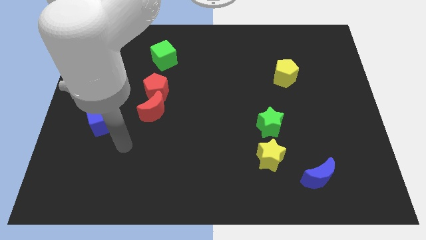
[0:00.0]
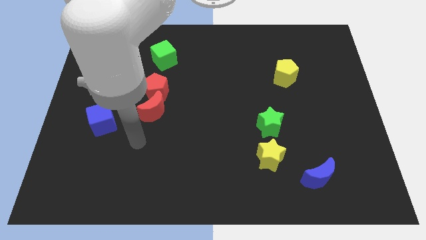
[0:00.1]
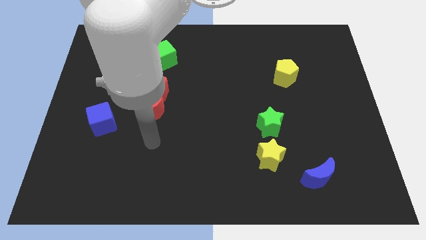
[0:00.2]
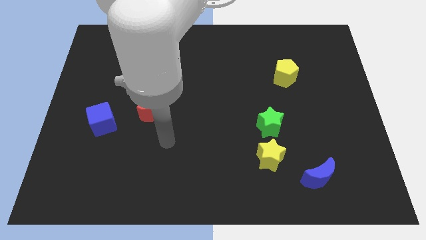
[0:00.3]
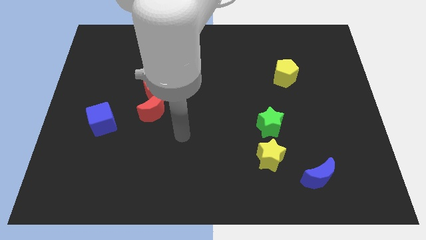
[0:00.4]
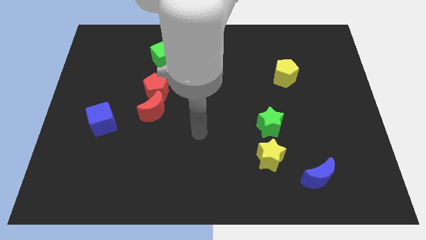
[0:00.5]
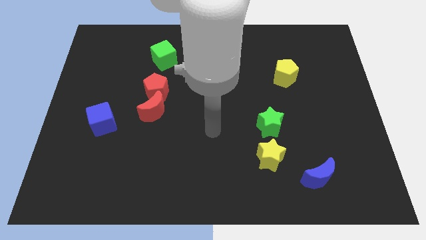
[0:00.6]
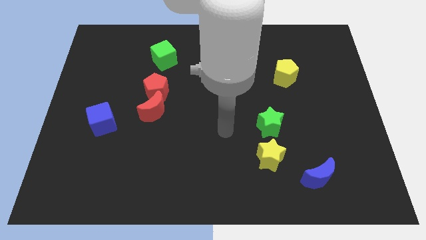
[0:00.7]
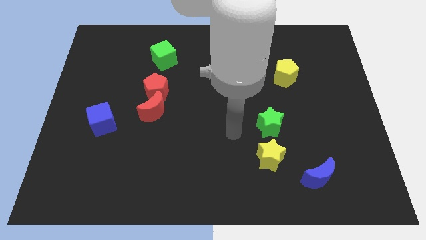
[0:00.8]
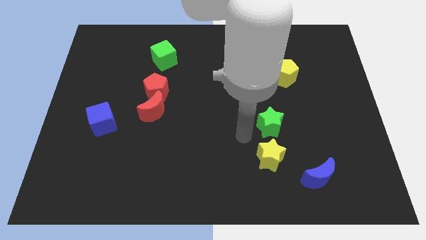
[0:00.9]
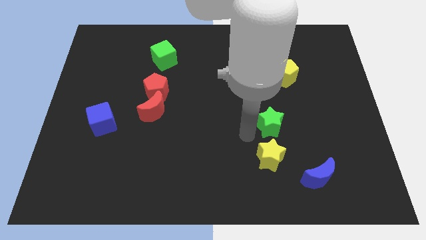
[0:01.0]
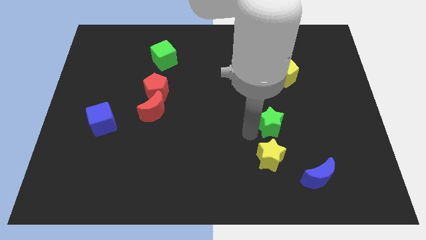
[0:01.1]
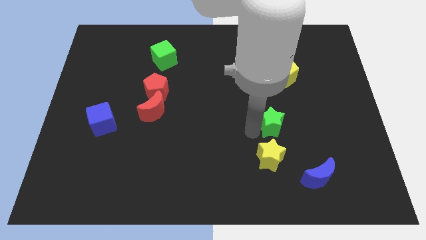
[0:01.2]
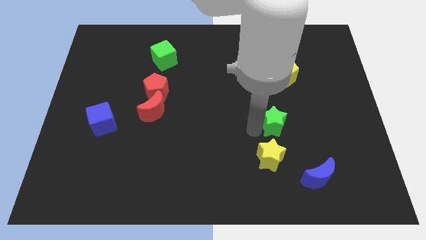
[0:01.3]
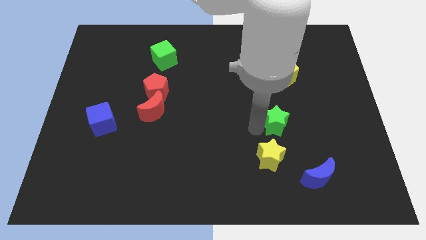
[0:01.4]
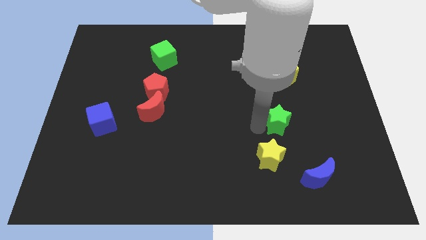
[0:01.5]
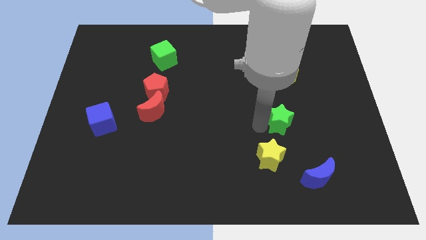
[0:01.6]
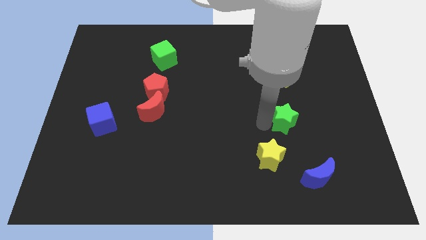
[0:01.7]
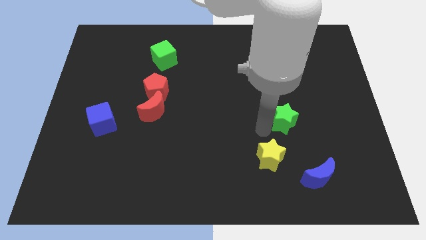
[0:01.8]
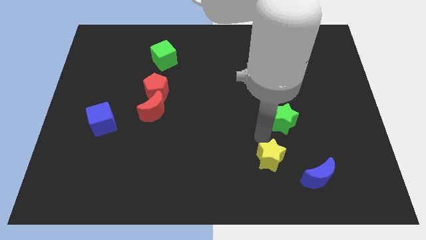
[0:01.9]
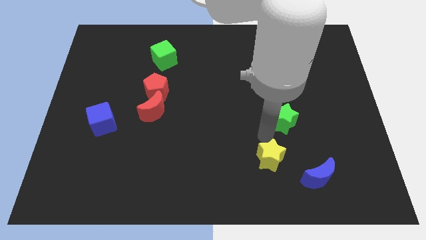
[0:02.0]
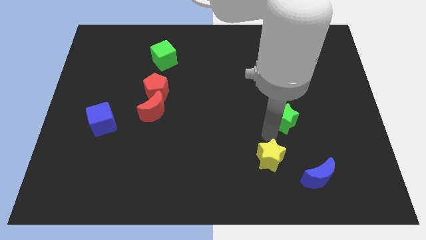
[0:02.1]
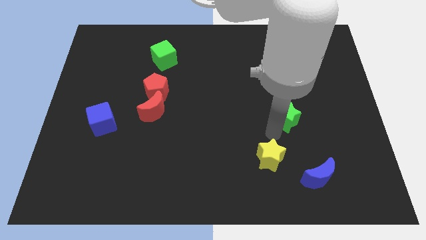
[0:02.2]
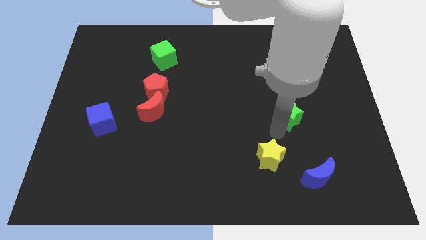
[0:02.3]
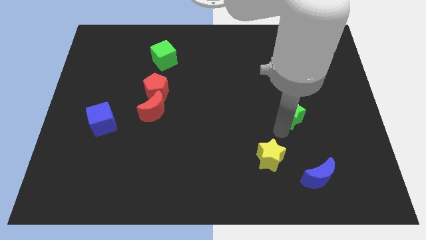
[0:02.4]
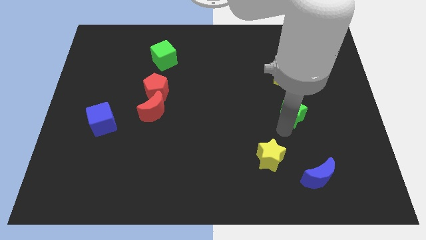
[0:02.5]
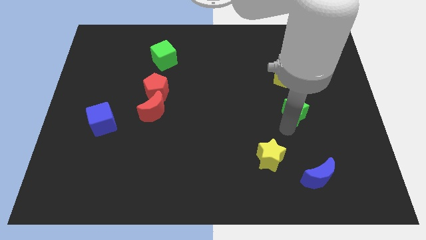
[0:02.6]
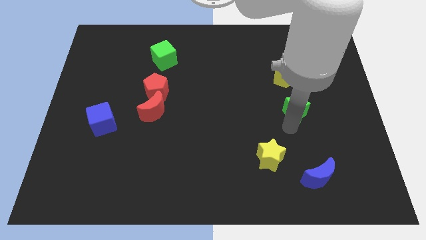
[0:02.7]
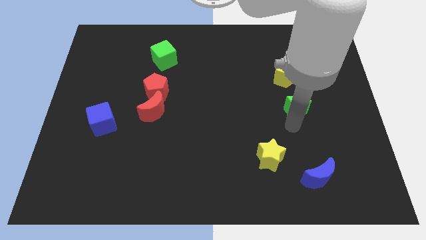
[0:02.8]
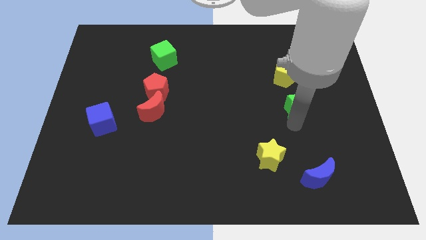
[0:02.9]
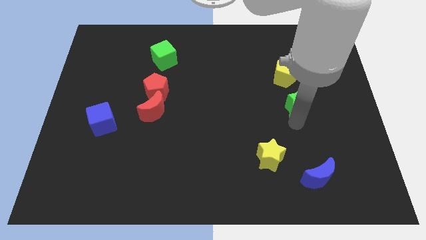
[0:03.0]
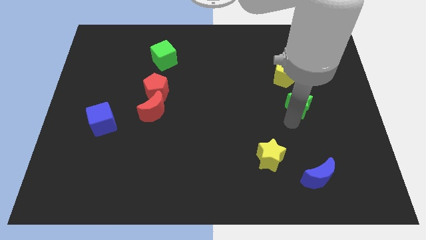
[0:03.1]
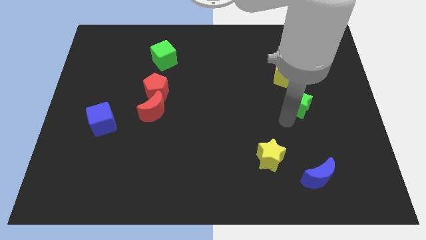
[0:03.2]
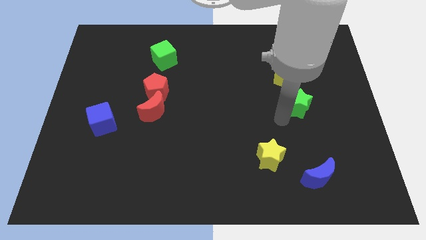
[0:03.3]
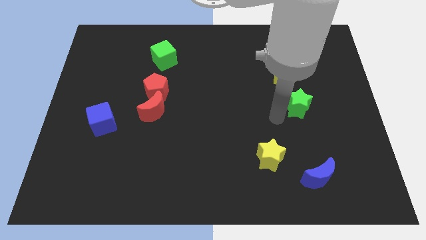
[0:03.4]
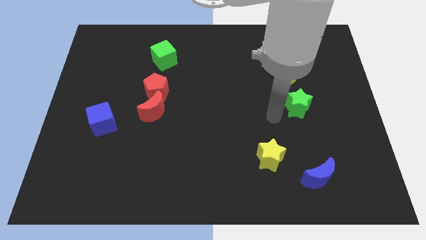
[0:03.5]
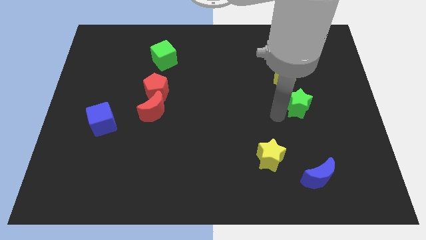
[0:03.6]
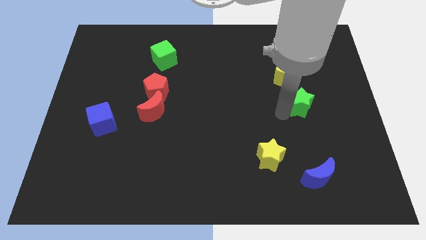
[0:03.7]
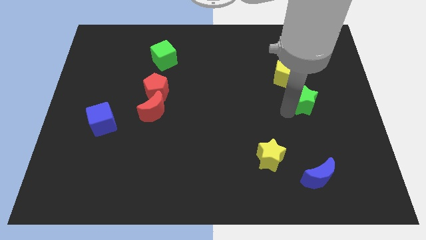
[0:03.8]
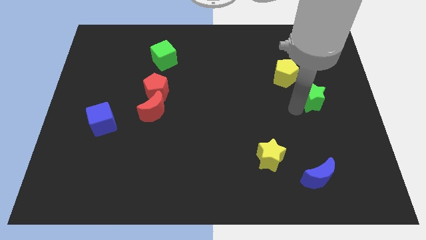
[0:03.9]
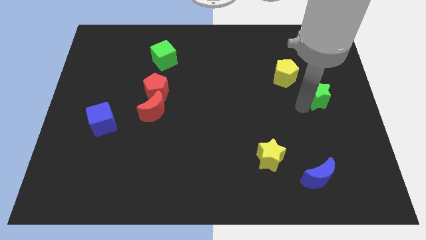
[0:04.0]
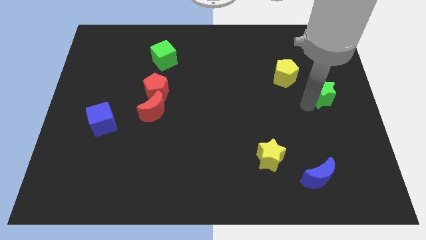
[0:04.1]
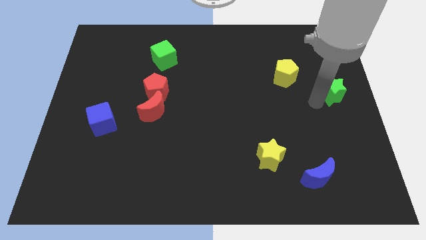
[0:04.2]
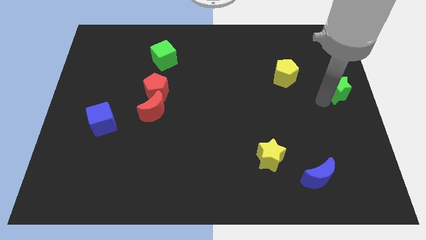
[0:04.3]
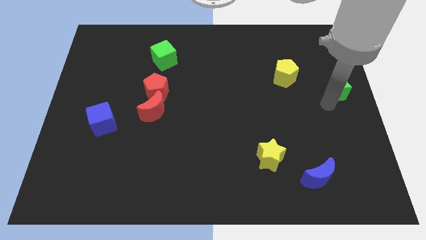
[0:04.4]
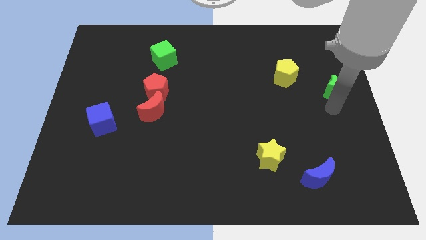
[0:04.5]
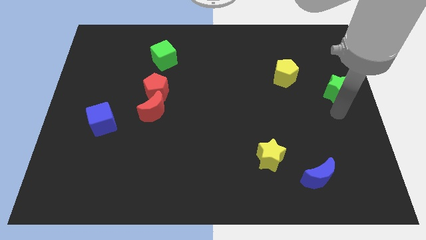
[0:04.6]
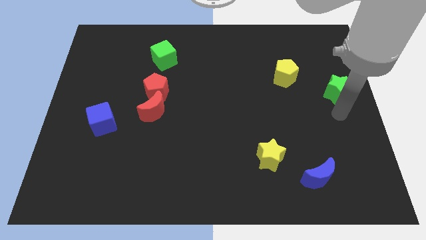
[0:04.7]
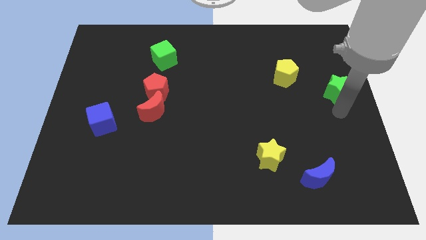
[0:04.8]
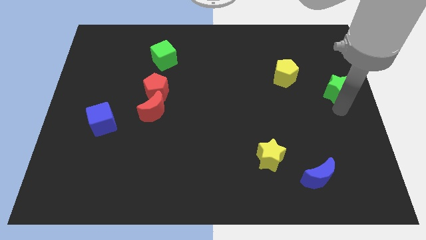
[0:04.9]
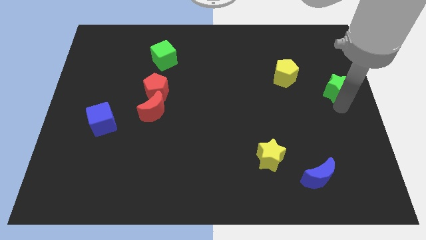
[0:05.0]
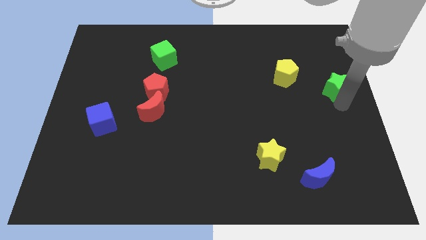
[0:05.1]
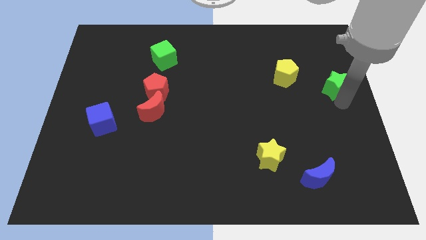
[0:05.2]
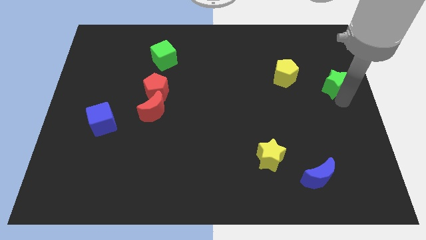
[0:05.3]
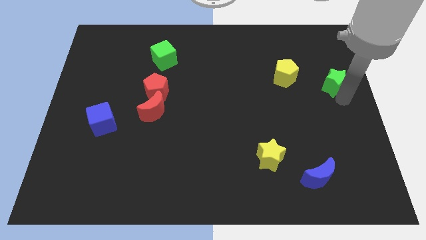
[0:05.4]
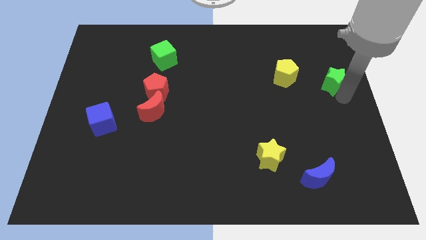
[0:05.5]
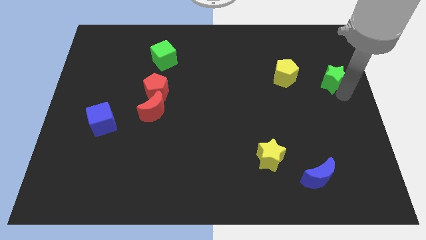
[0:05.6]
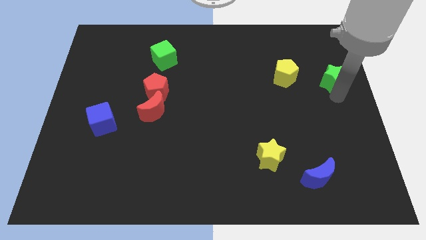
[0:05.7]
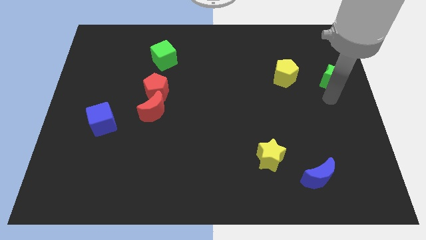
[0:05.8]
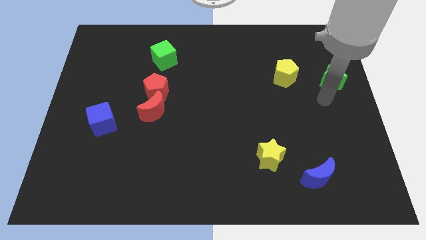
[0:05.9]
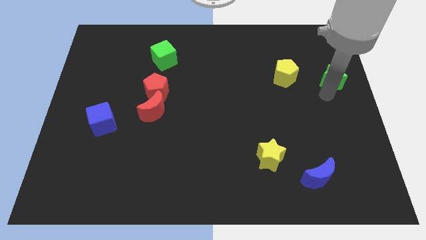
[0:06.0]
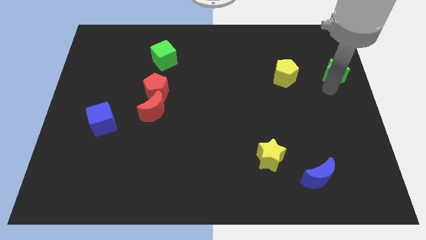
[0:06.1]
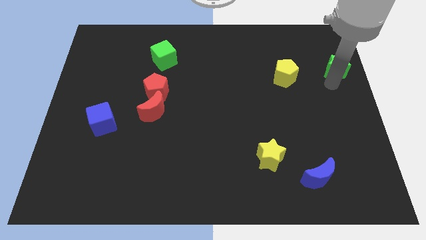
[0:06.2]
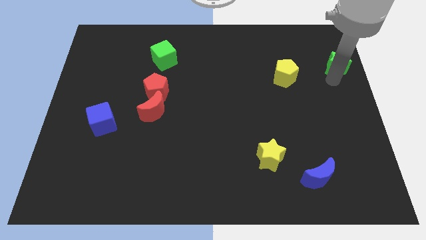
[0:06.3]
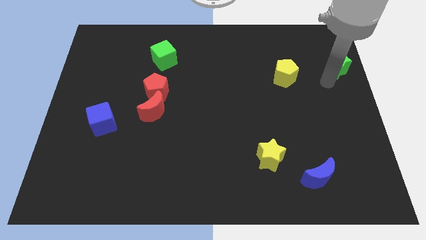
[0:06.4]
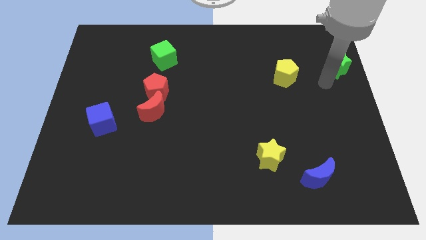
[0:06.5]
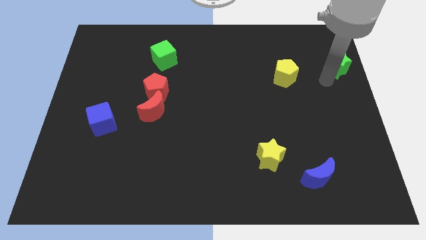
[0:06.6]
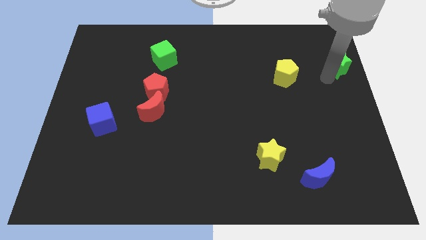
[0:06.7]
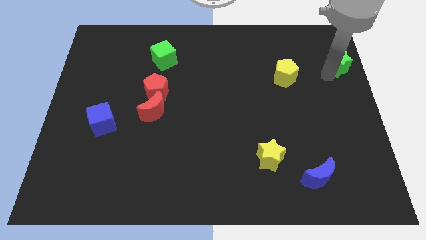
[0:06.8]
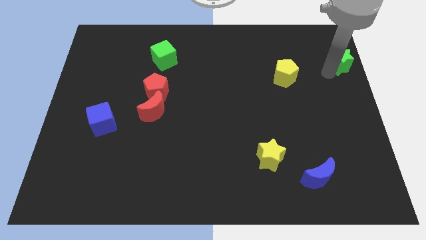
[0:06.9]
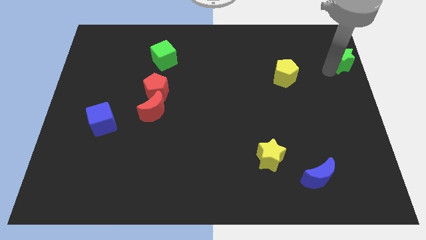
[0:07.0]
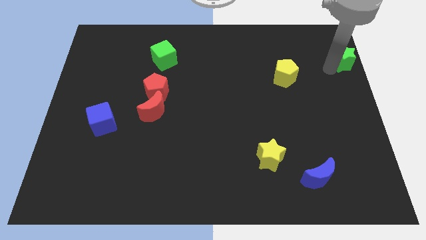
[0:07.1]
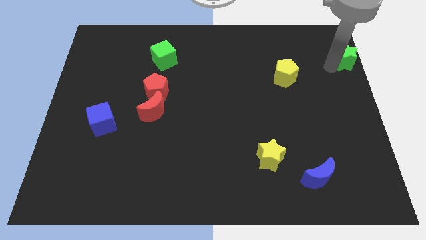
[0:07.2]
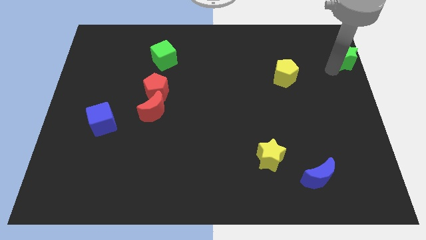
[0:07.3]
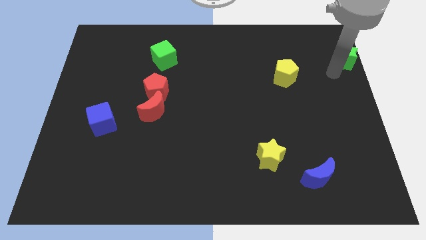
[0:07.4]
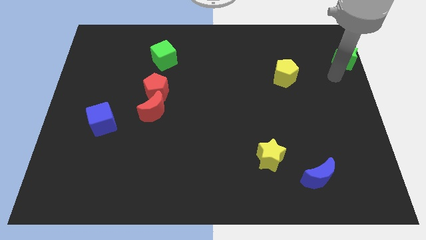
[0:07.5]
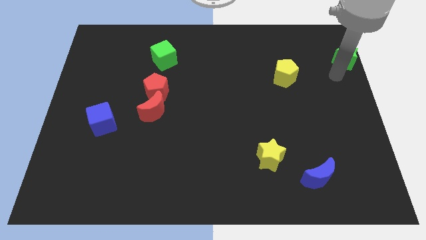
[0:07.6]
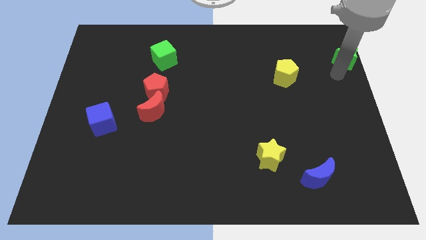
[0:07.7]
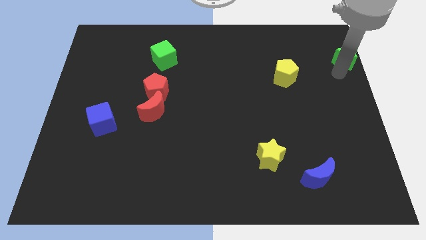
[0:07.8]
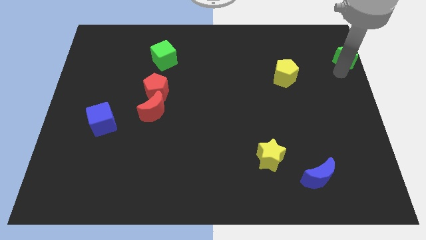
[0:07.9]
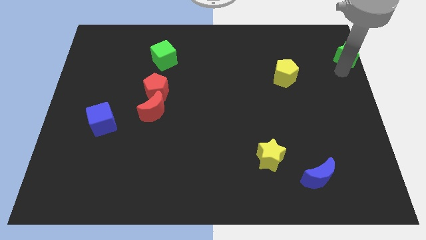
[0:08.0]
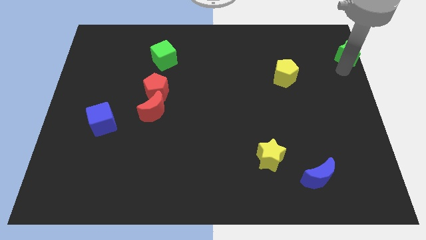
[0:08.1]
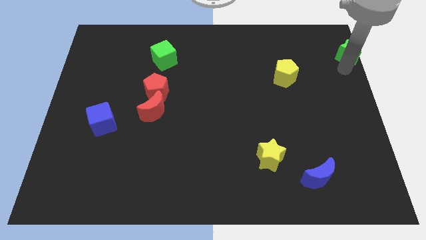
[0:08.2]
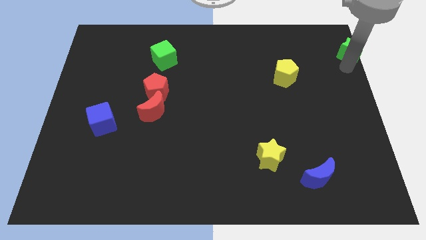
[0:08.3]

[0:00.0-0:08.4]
put the green star to the upper right corner

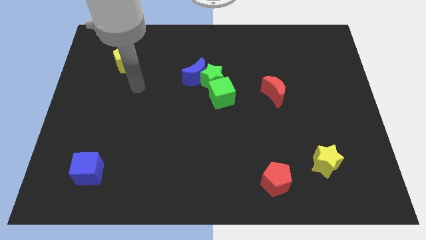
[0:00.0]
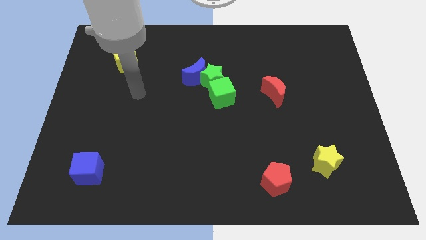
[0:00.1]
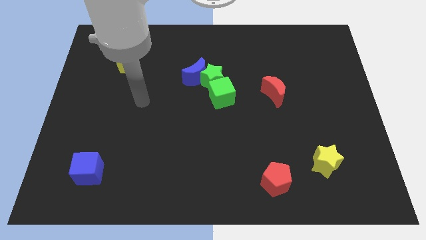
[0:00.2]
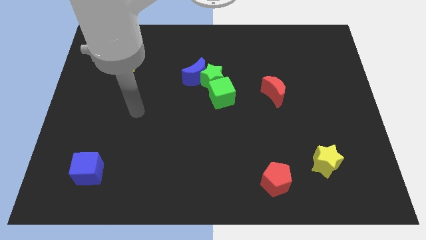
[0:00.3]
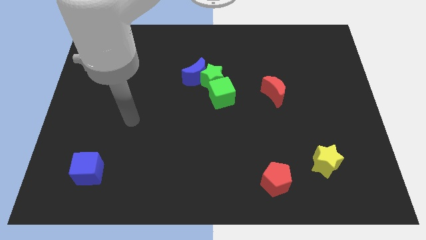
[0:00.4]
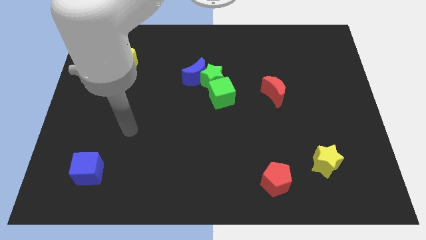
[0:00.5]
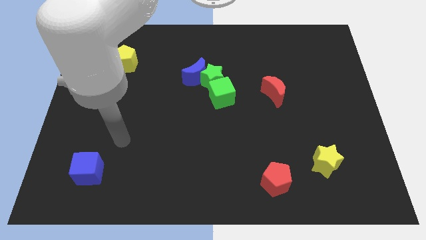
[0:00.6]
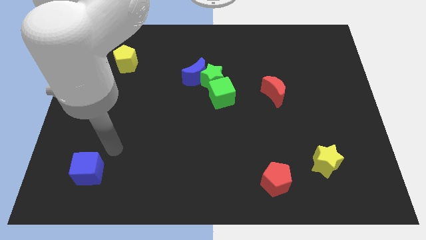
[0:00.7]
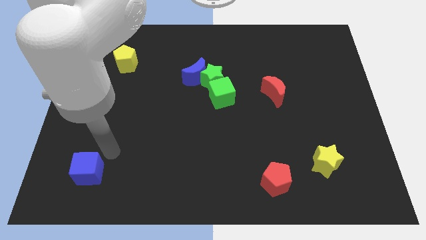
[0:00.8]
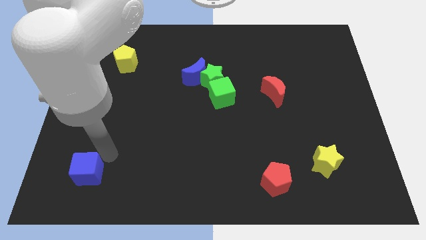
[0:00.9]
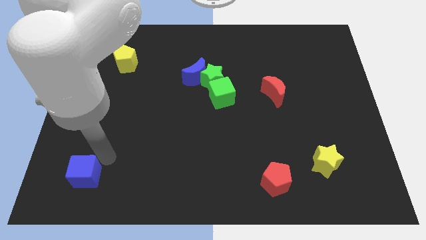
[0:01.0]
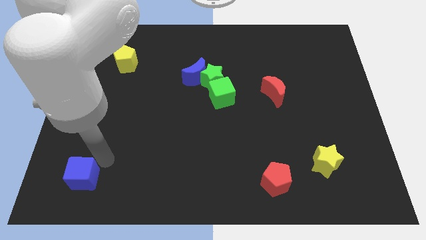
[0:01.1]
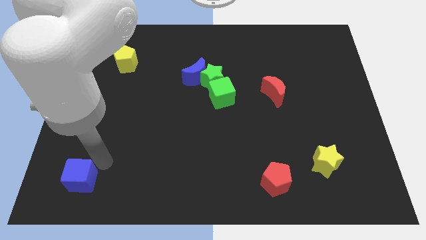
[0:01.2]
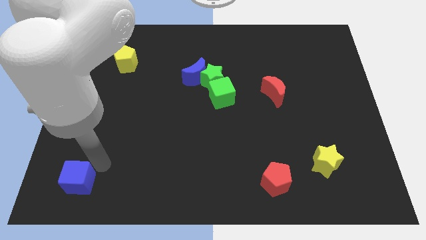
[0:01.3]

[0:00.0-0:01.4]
push the blue cube to the bottom left of the board
